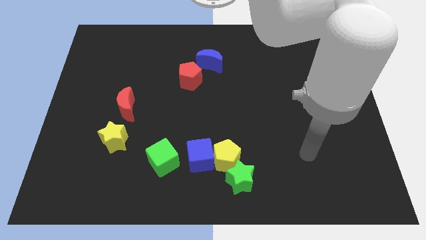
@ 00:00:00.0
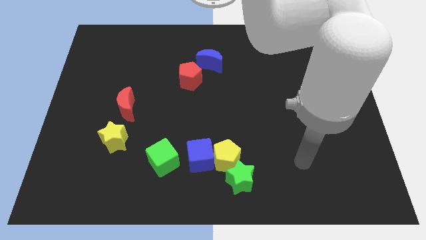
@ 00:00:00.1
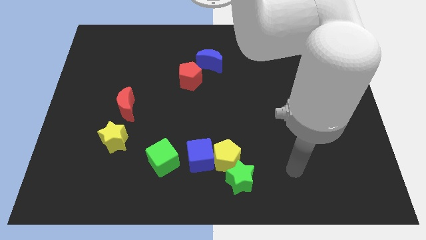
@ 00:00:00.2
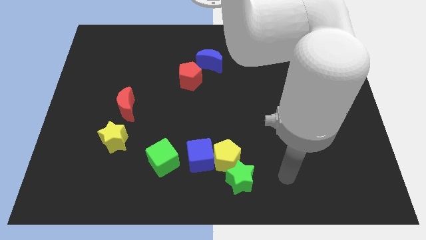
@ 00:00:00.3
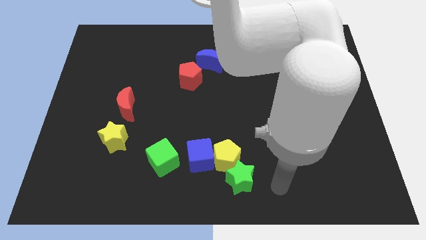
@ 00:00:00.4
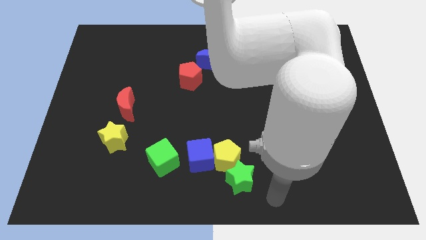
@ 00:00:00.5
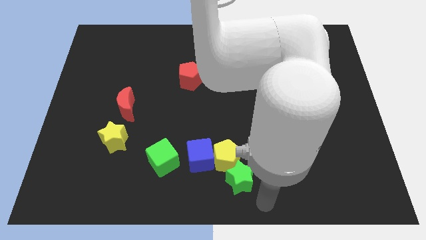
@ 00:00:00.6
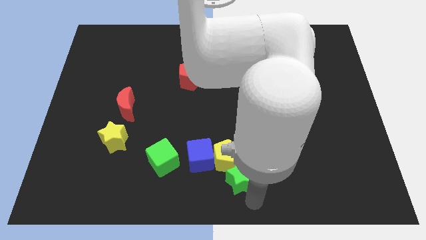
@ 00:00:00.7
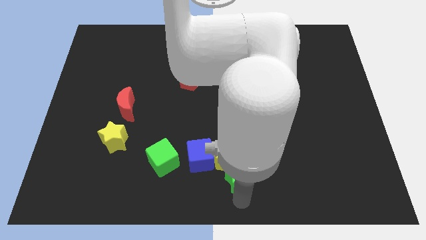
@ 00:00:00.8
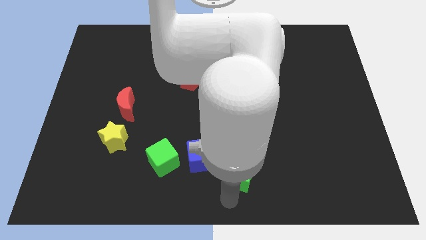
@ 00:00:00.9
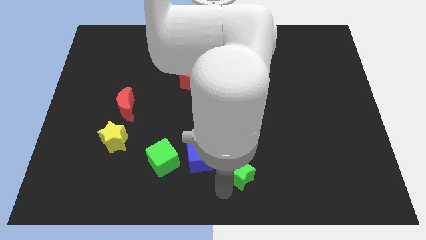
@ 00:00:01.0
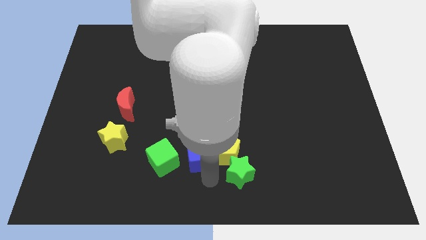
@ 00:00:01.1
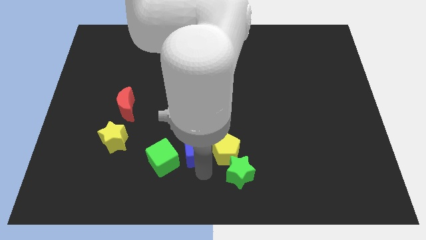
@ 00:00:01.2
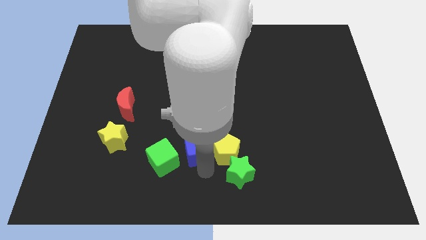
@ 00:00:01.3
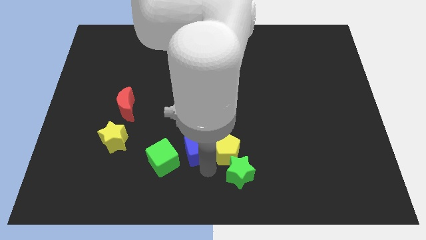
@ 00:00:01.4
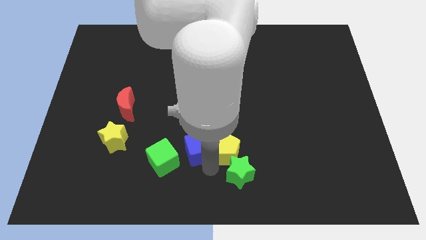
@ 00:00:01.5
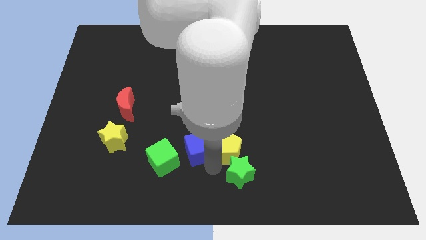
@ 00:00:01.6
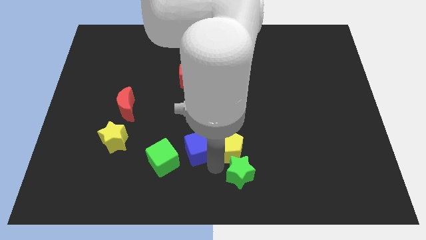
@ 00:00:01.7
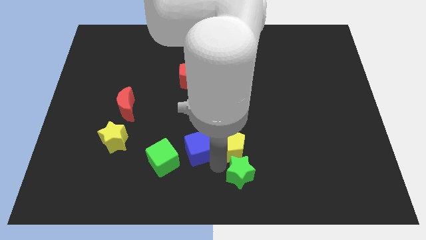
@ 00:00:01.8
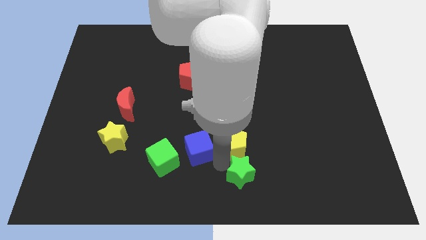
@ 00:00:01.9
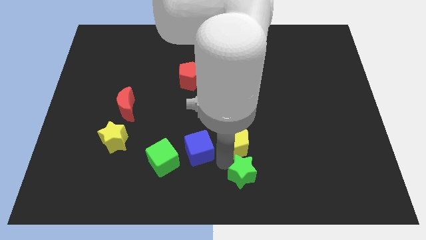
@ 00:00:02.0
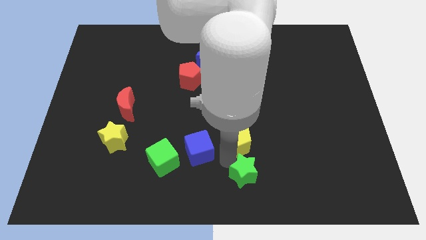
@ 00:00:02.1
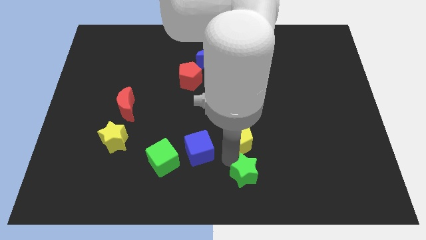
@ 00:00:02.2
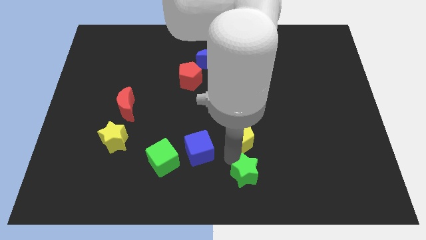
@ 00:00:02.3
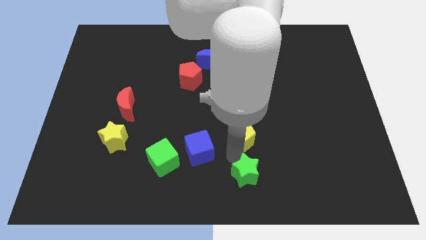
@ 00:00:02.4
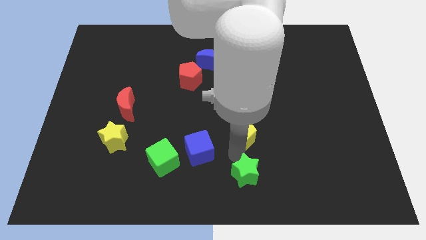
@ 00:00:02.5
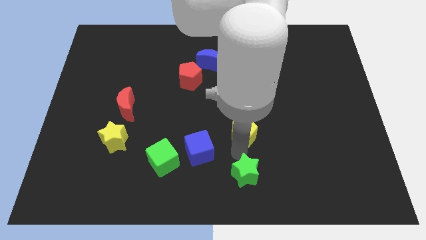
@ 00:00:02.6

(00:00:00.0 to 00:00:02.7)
push the yellow pentagon a little diagonally upwards and to the right

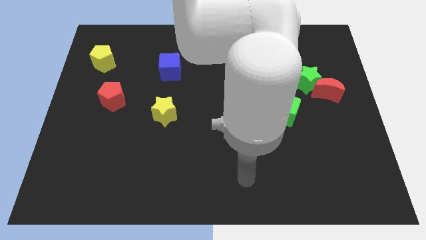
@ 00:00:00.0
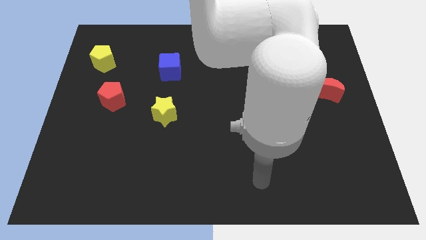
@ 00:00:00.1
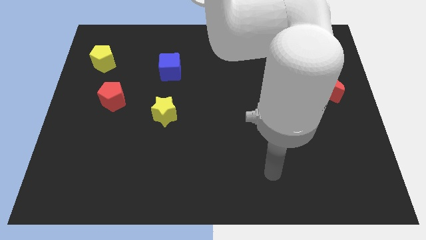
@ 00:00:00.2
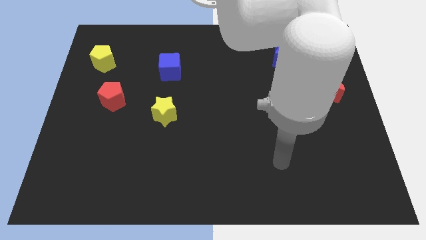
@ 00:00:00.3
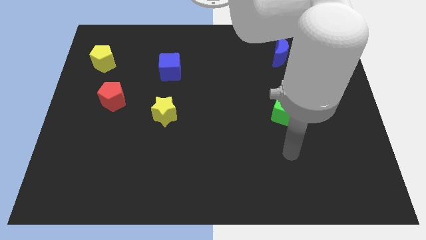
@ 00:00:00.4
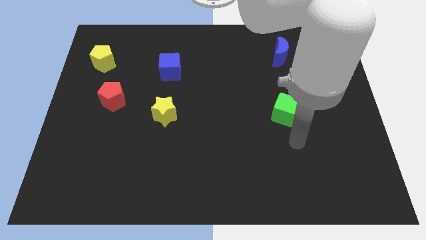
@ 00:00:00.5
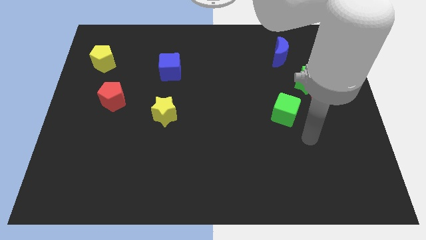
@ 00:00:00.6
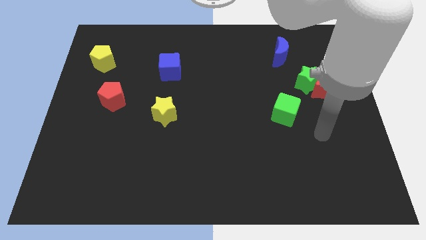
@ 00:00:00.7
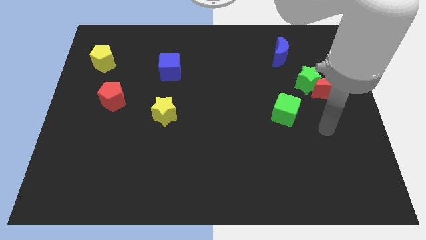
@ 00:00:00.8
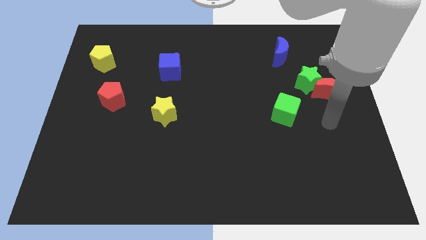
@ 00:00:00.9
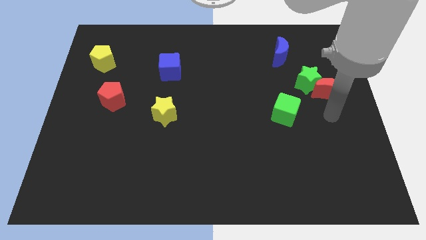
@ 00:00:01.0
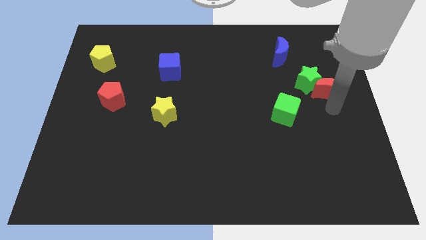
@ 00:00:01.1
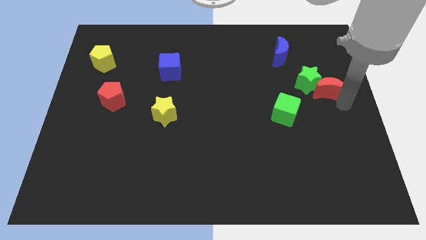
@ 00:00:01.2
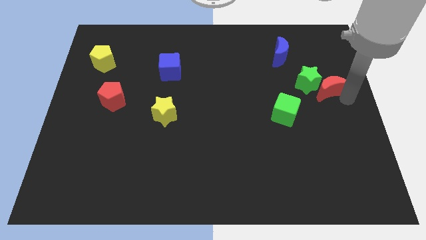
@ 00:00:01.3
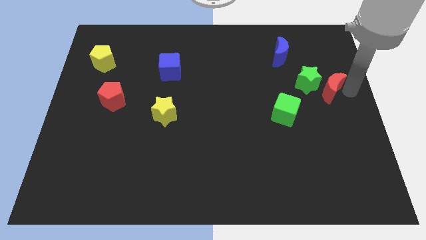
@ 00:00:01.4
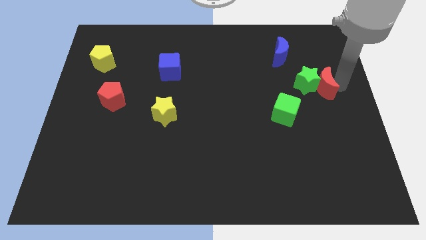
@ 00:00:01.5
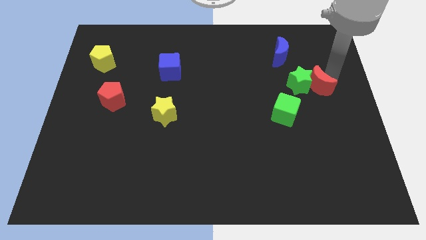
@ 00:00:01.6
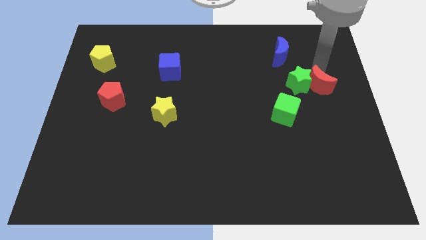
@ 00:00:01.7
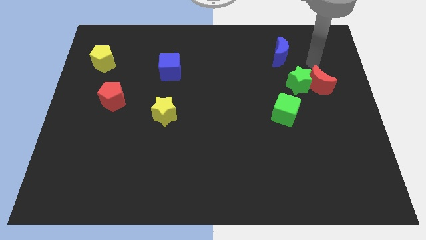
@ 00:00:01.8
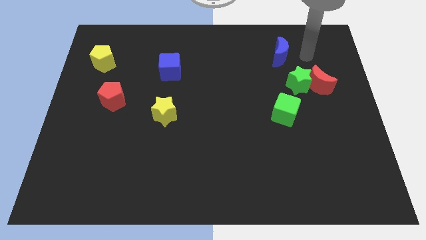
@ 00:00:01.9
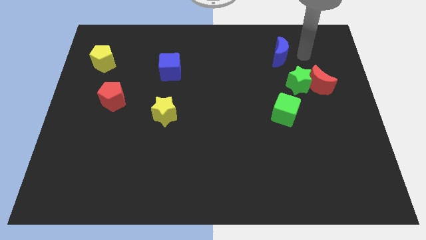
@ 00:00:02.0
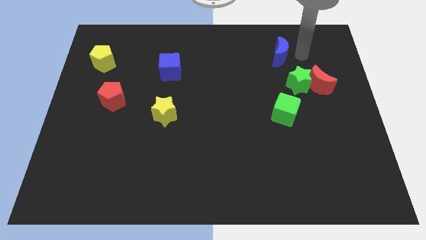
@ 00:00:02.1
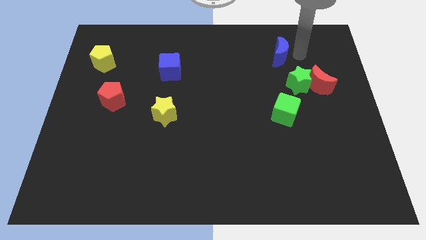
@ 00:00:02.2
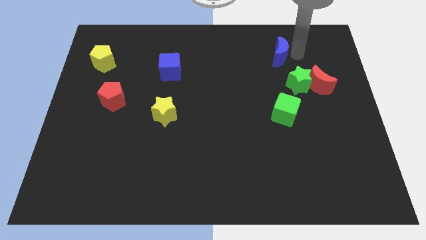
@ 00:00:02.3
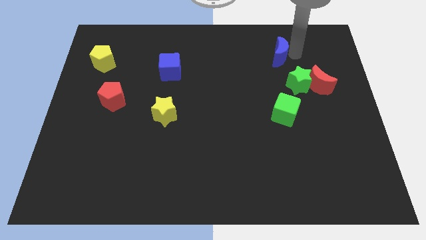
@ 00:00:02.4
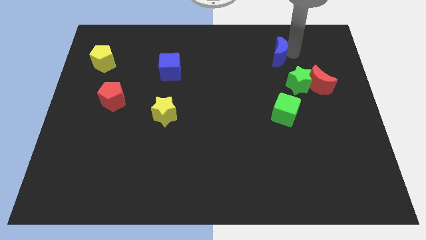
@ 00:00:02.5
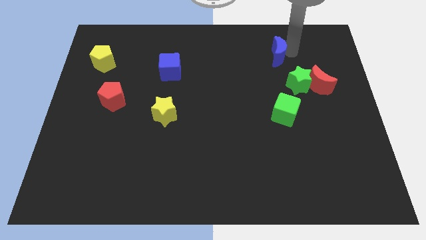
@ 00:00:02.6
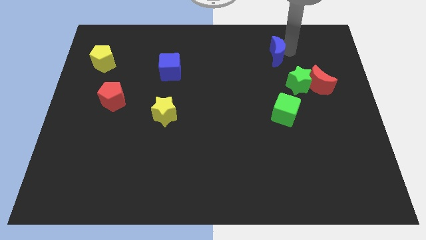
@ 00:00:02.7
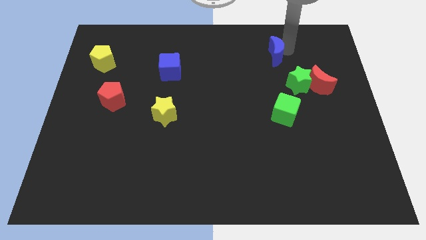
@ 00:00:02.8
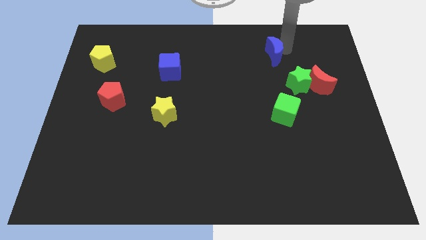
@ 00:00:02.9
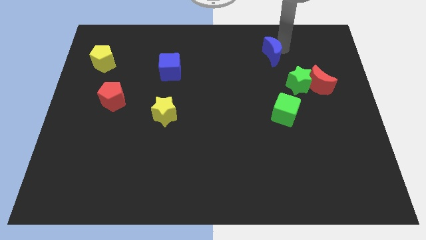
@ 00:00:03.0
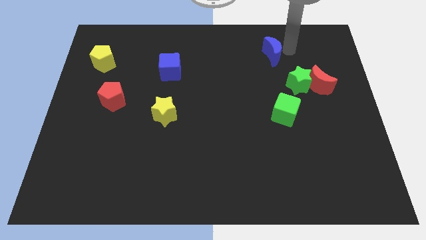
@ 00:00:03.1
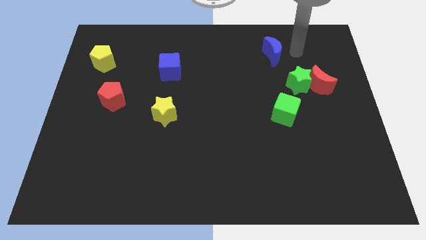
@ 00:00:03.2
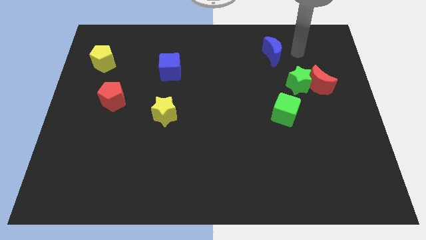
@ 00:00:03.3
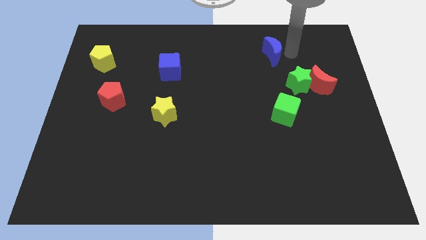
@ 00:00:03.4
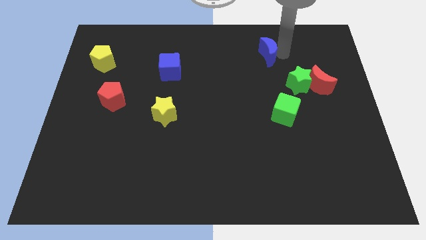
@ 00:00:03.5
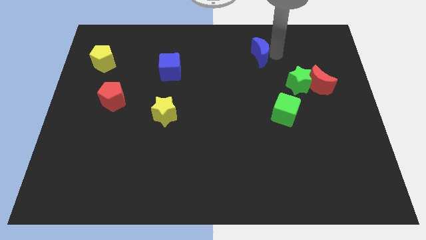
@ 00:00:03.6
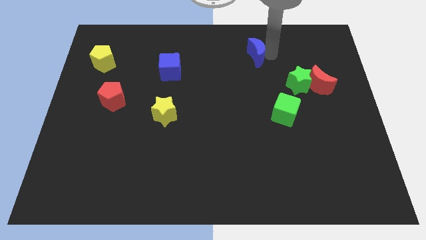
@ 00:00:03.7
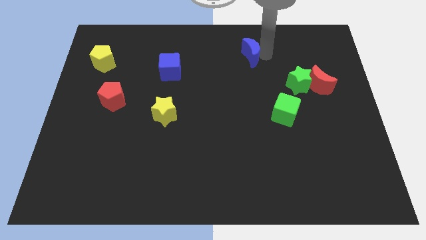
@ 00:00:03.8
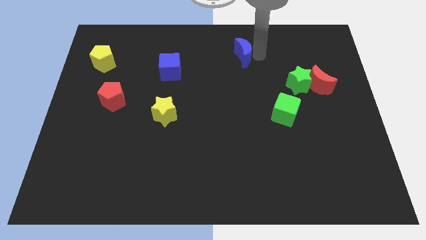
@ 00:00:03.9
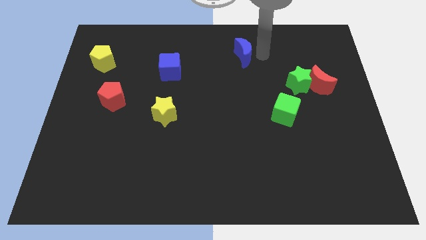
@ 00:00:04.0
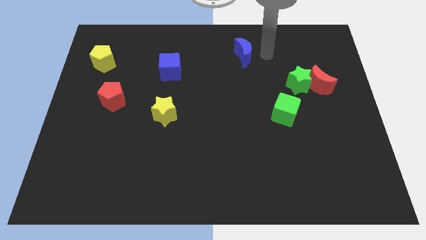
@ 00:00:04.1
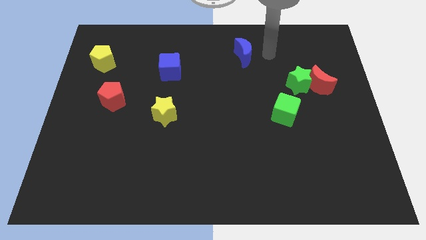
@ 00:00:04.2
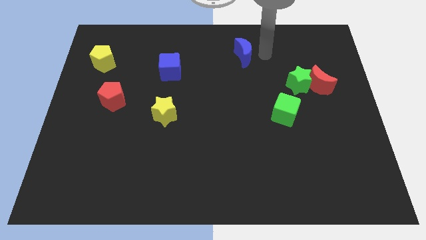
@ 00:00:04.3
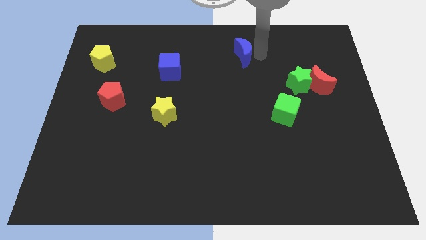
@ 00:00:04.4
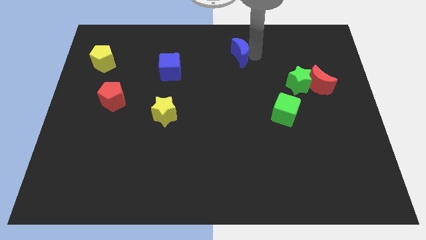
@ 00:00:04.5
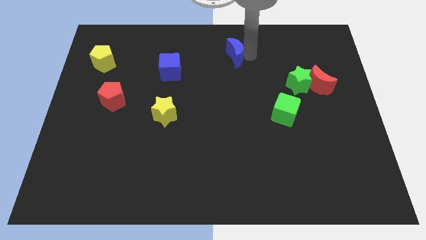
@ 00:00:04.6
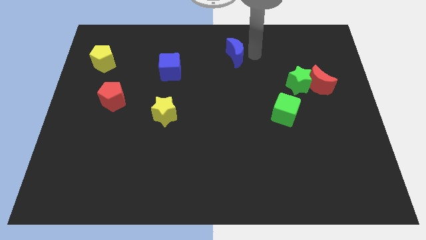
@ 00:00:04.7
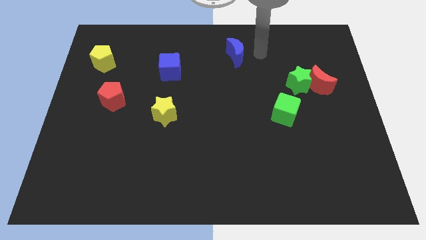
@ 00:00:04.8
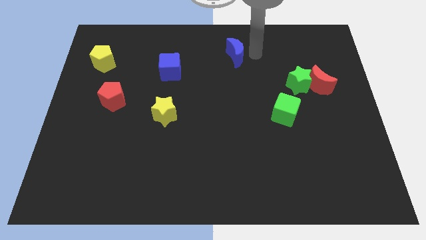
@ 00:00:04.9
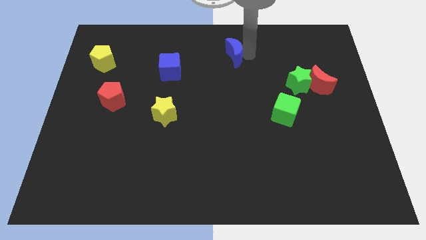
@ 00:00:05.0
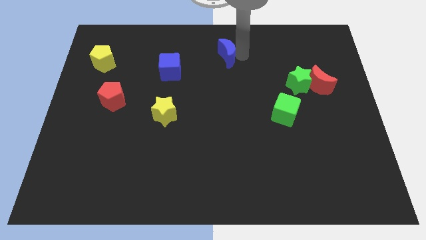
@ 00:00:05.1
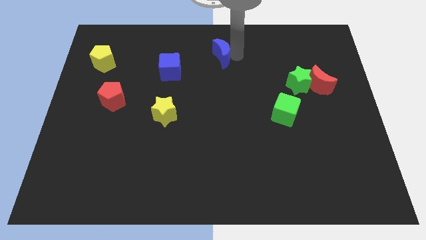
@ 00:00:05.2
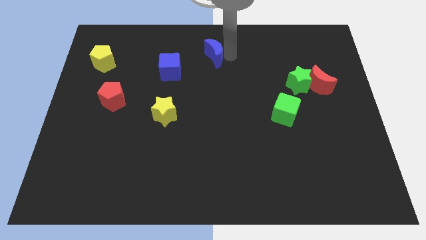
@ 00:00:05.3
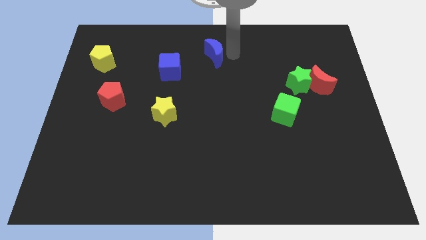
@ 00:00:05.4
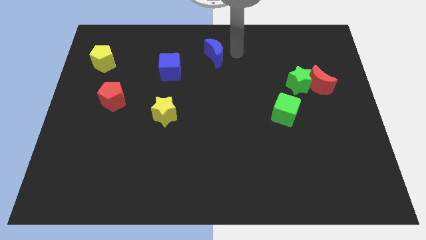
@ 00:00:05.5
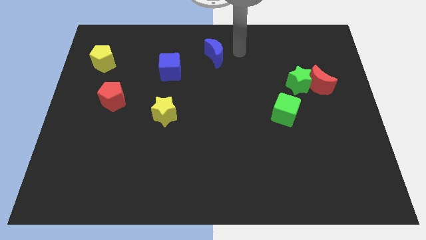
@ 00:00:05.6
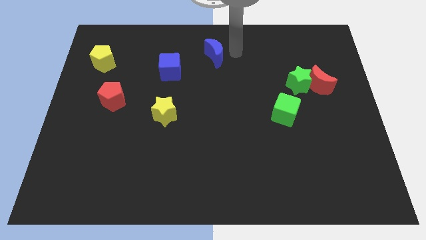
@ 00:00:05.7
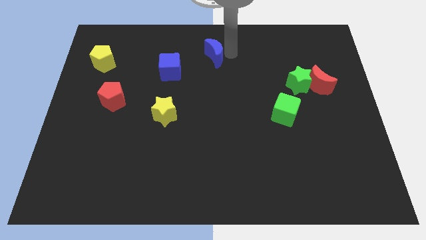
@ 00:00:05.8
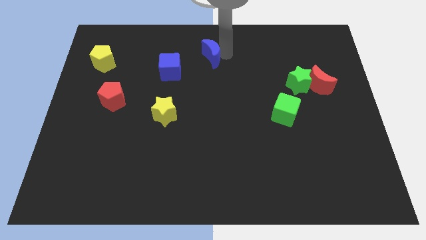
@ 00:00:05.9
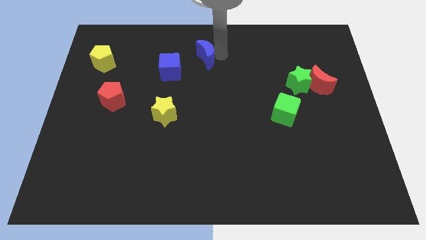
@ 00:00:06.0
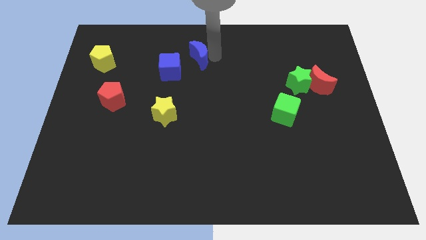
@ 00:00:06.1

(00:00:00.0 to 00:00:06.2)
push the blue moon left
